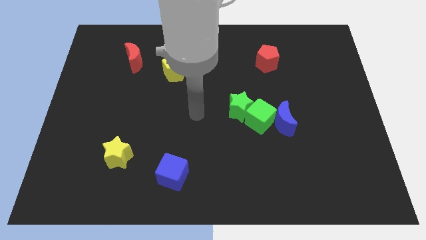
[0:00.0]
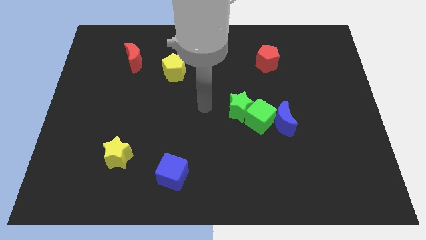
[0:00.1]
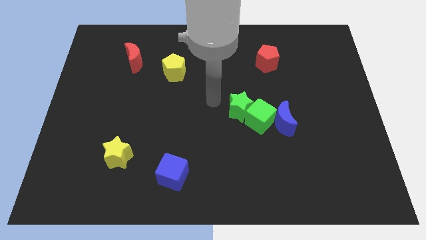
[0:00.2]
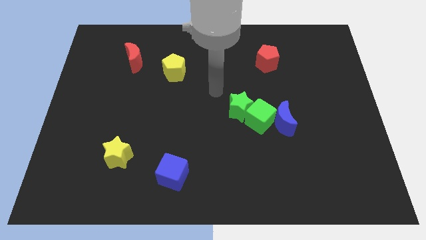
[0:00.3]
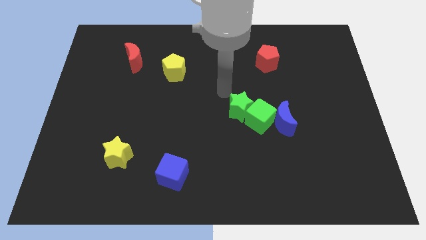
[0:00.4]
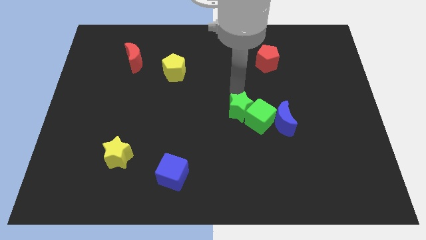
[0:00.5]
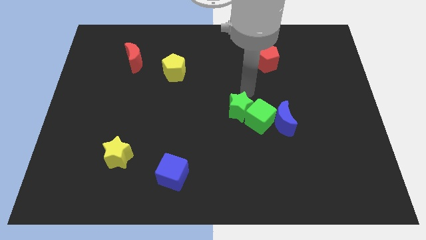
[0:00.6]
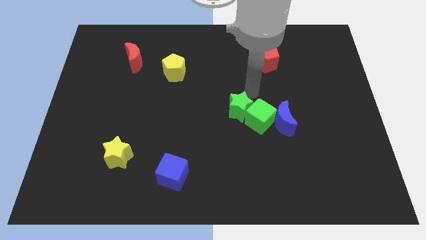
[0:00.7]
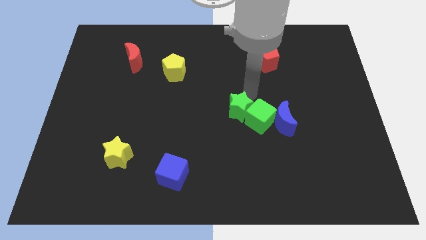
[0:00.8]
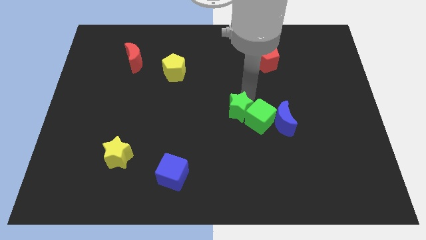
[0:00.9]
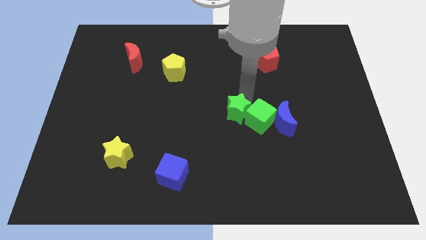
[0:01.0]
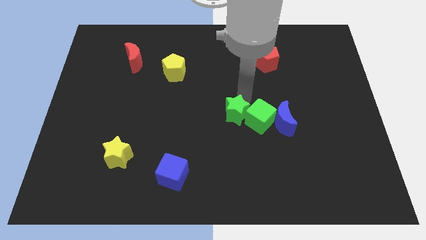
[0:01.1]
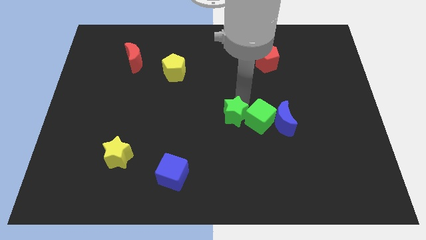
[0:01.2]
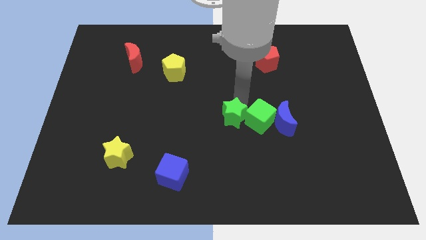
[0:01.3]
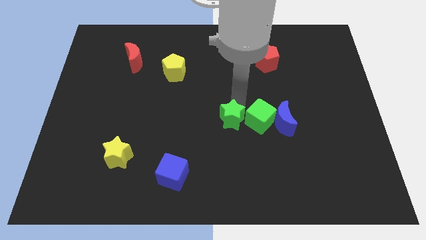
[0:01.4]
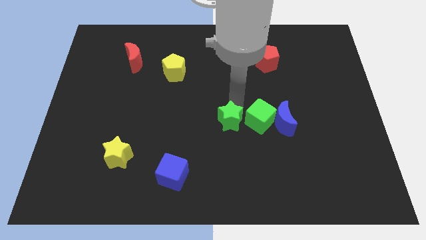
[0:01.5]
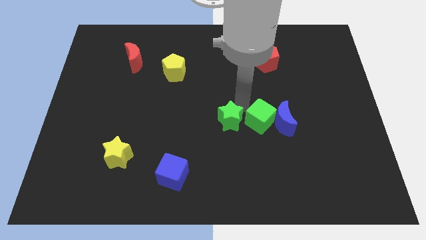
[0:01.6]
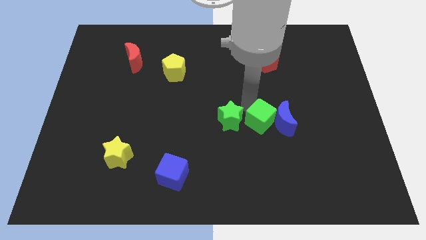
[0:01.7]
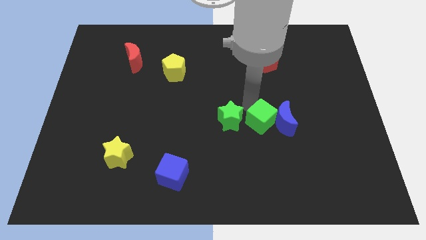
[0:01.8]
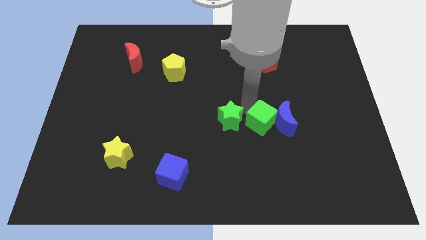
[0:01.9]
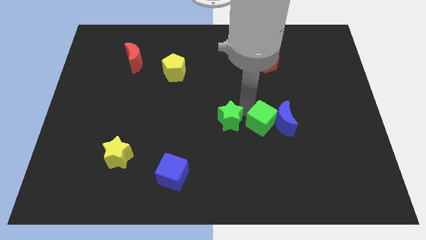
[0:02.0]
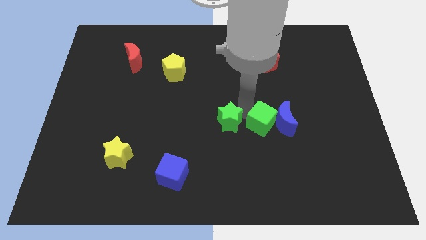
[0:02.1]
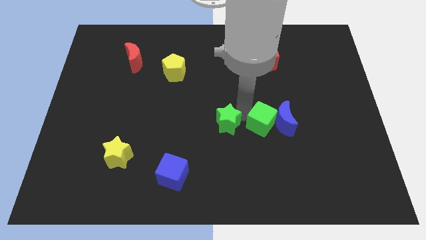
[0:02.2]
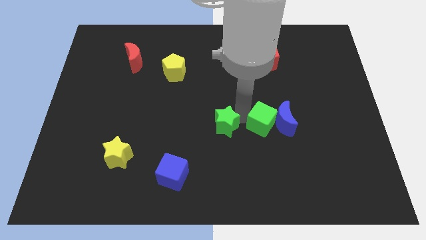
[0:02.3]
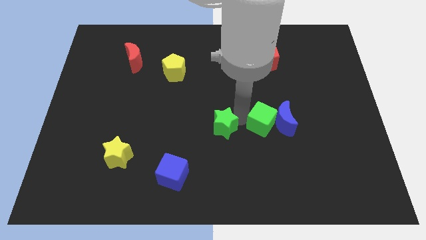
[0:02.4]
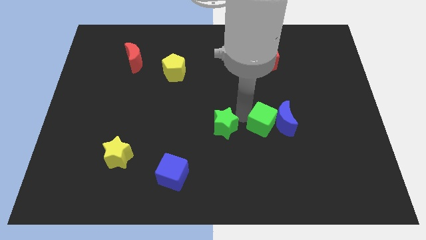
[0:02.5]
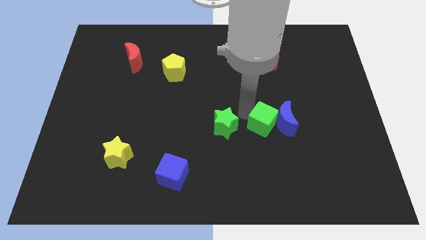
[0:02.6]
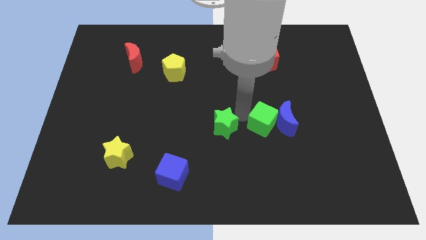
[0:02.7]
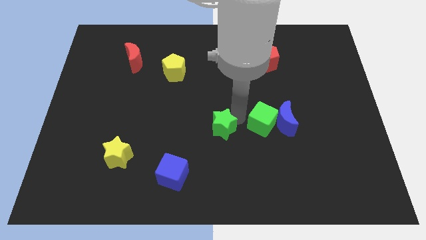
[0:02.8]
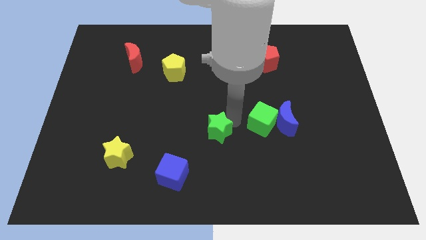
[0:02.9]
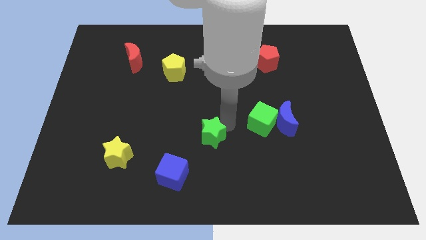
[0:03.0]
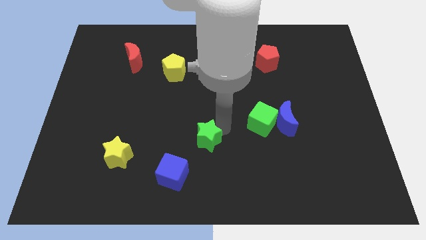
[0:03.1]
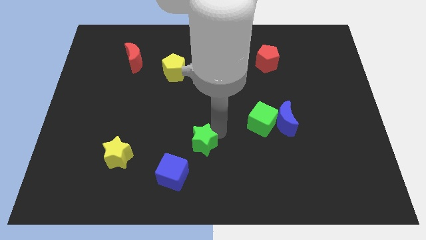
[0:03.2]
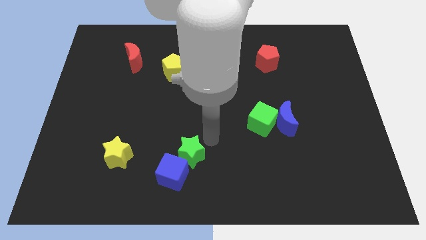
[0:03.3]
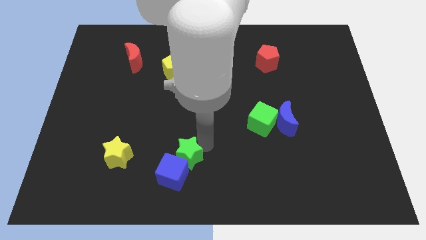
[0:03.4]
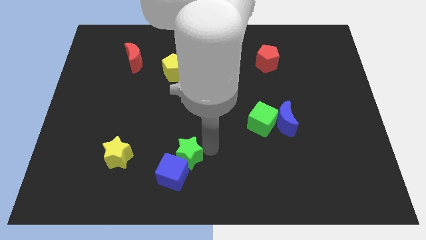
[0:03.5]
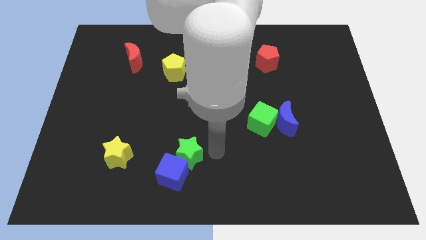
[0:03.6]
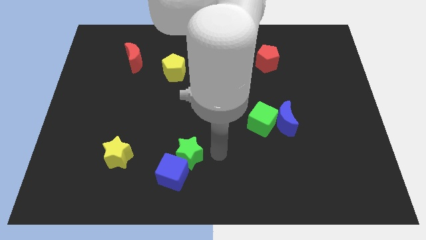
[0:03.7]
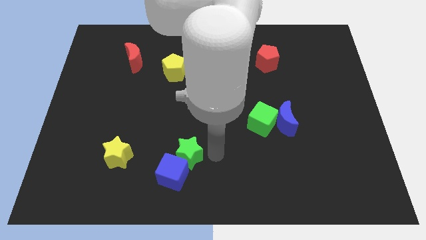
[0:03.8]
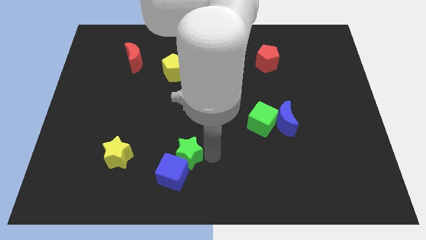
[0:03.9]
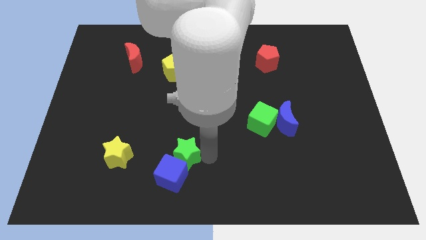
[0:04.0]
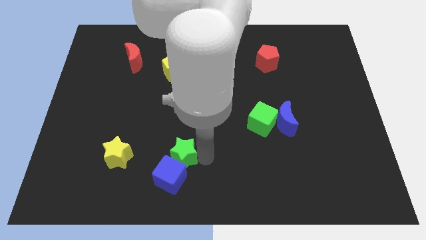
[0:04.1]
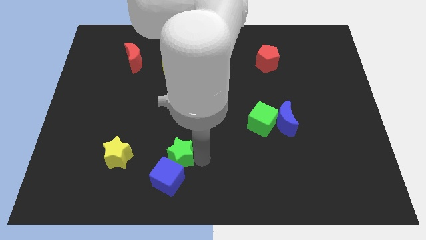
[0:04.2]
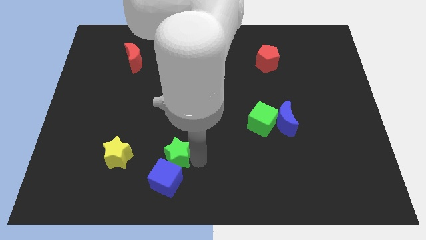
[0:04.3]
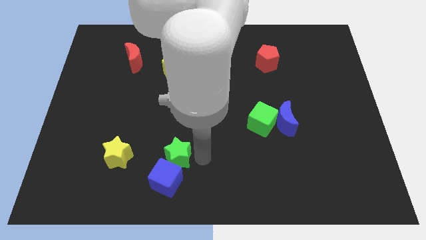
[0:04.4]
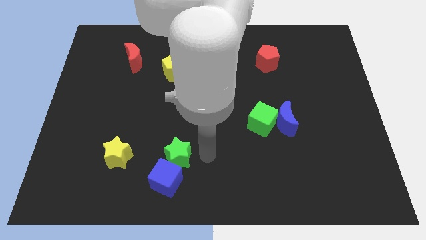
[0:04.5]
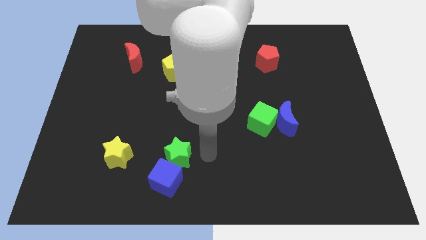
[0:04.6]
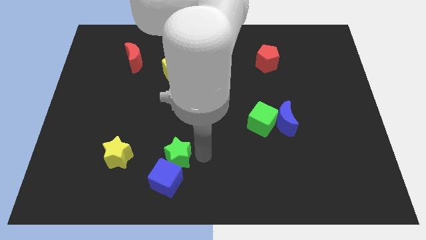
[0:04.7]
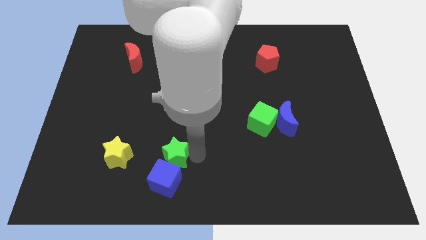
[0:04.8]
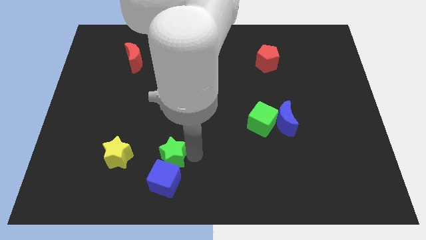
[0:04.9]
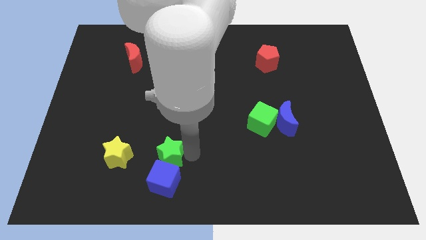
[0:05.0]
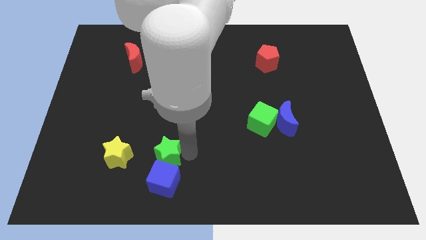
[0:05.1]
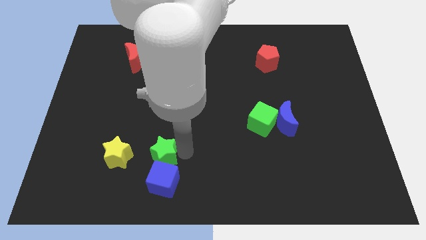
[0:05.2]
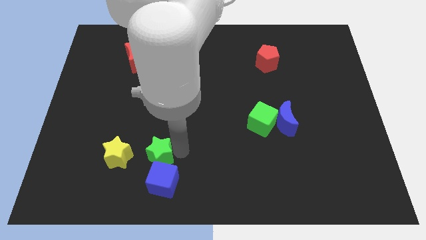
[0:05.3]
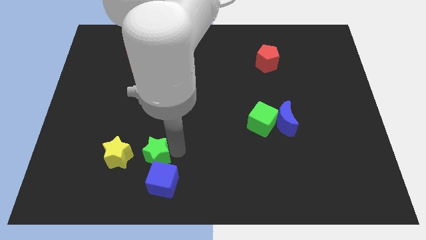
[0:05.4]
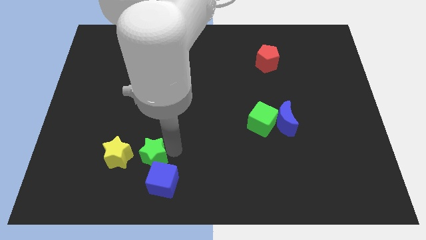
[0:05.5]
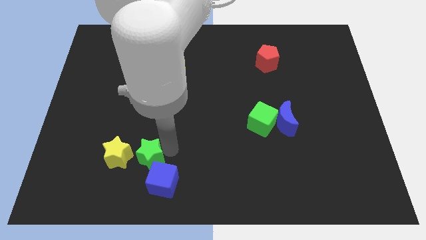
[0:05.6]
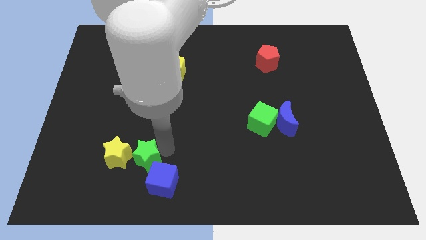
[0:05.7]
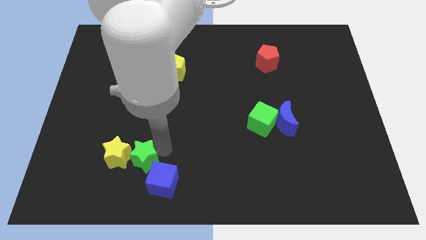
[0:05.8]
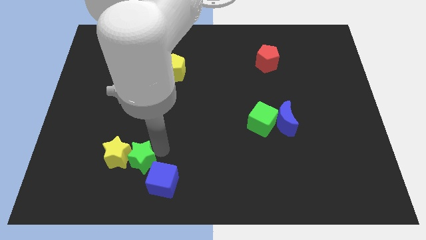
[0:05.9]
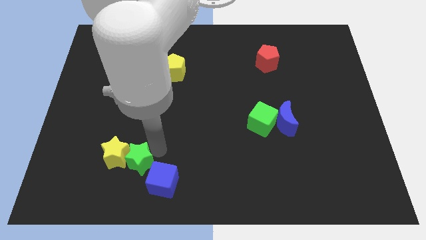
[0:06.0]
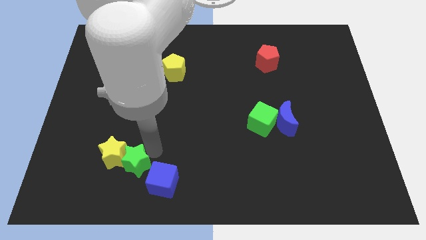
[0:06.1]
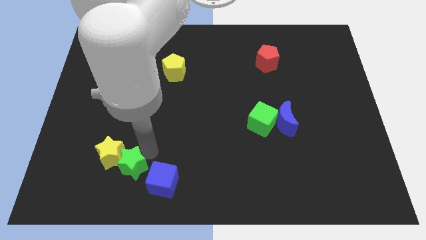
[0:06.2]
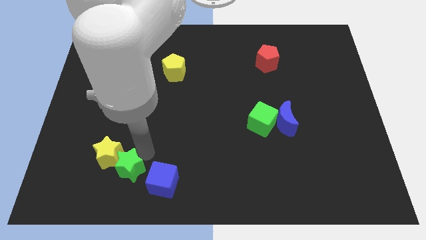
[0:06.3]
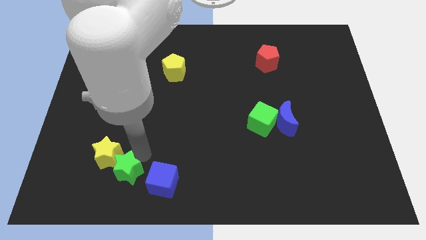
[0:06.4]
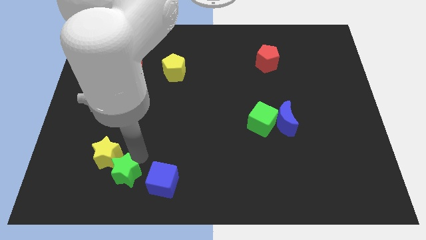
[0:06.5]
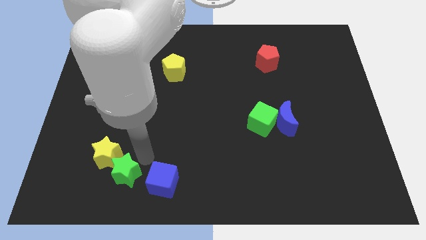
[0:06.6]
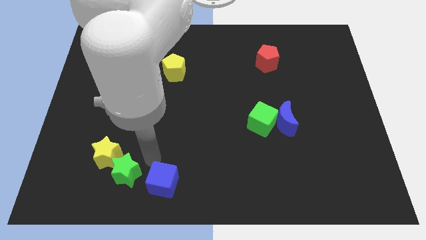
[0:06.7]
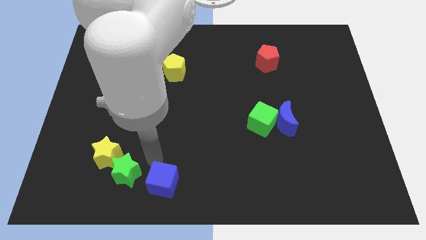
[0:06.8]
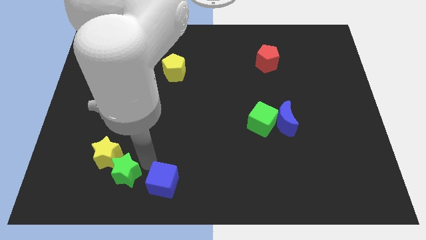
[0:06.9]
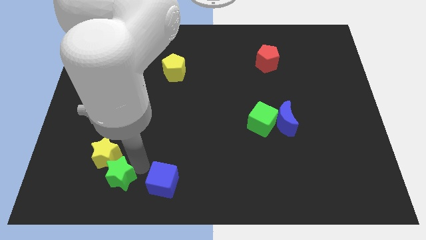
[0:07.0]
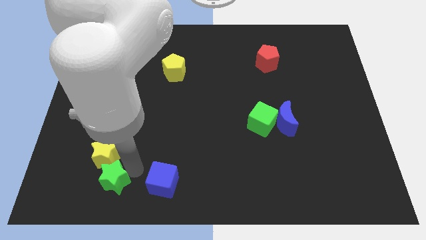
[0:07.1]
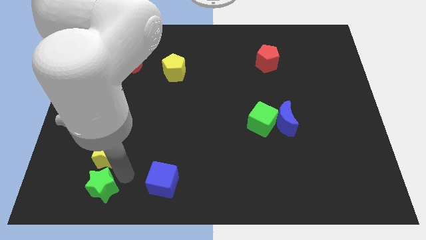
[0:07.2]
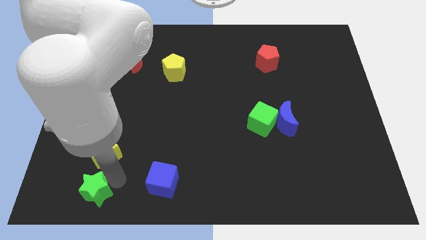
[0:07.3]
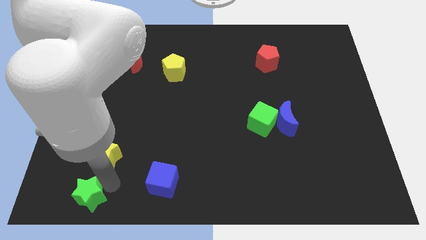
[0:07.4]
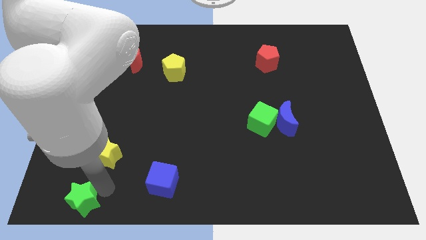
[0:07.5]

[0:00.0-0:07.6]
put the green star to the bottom left of the board
